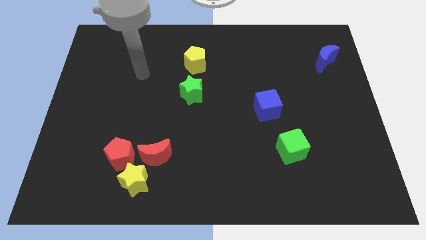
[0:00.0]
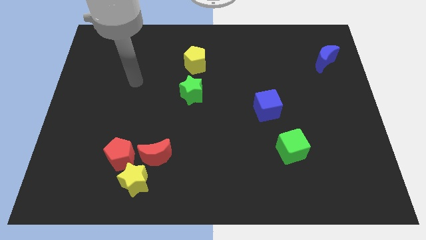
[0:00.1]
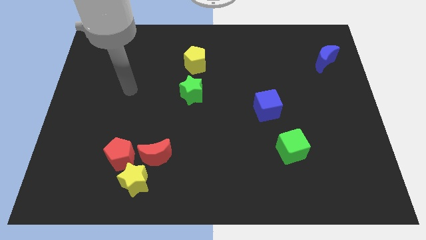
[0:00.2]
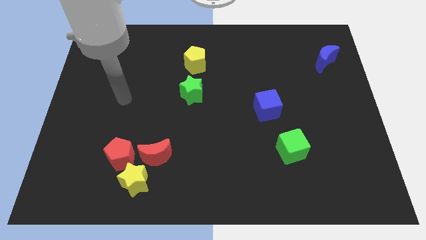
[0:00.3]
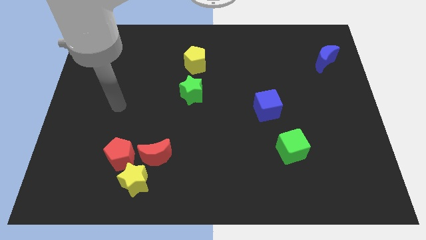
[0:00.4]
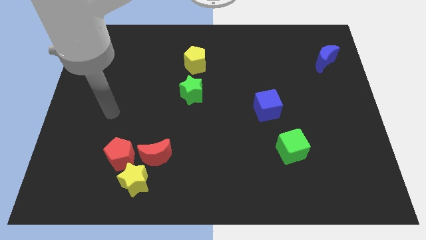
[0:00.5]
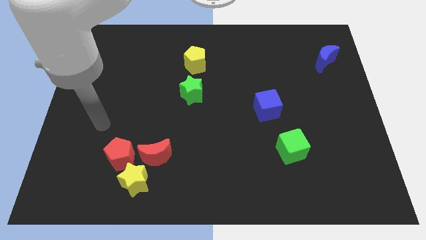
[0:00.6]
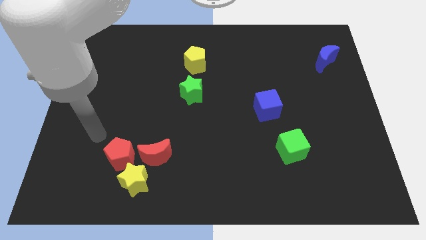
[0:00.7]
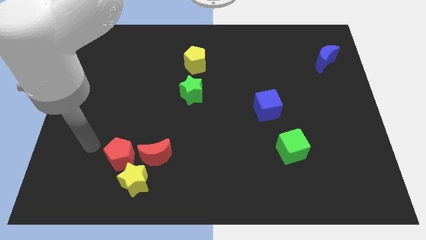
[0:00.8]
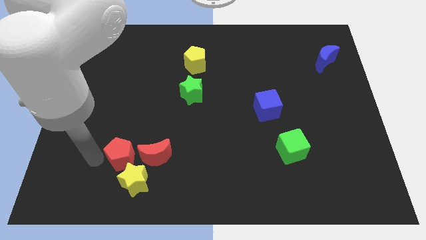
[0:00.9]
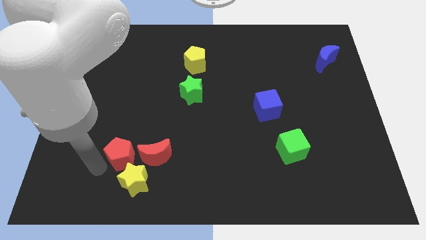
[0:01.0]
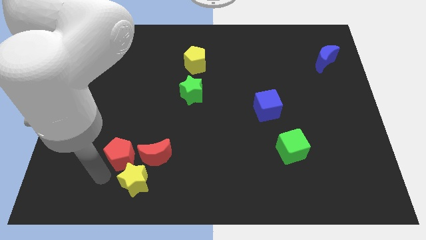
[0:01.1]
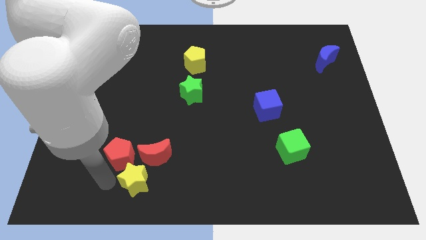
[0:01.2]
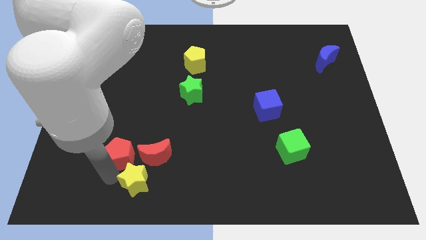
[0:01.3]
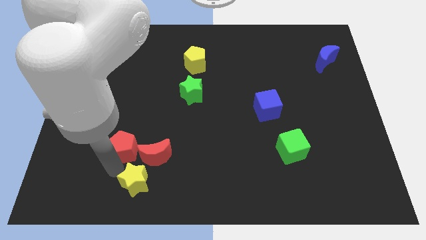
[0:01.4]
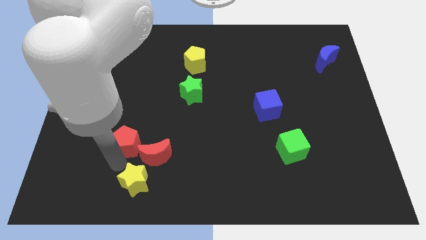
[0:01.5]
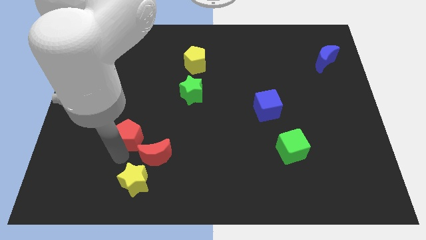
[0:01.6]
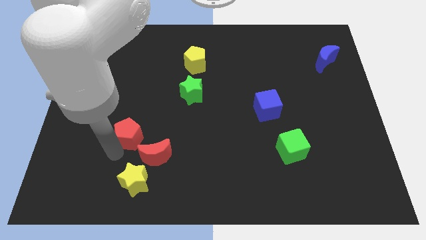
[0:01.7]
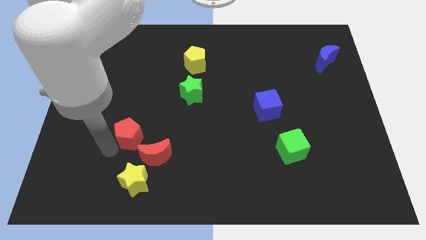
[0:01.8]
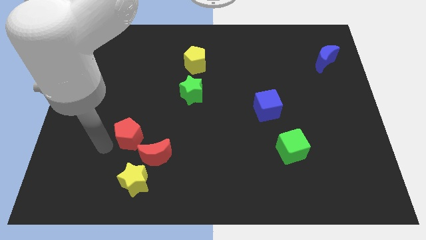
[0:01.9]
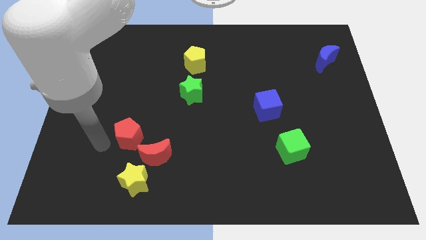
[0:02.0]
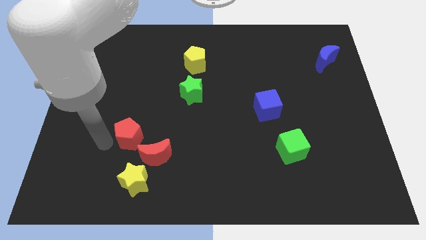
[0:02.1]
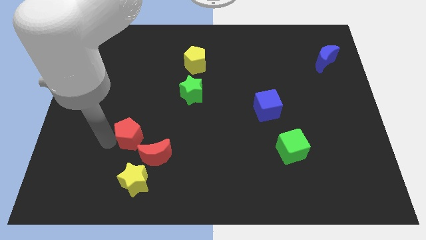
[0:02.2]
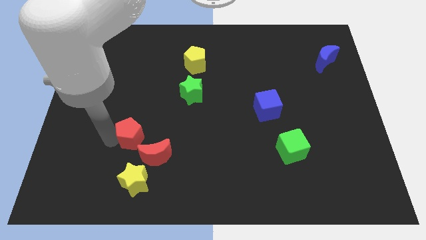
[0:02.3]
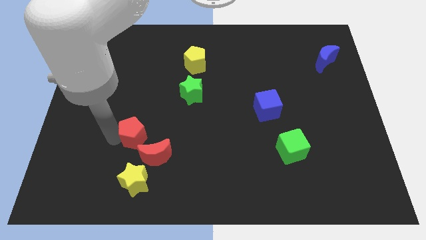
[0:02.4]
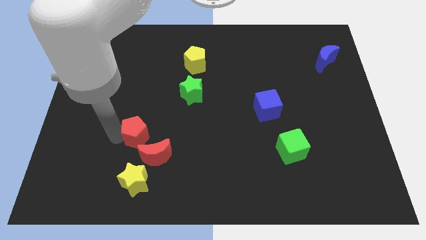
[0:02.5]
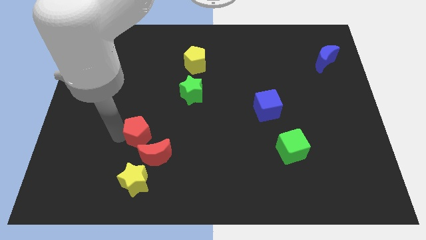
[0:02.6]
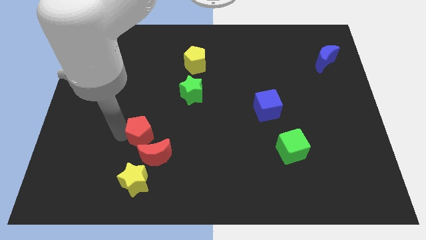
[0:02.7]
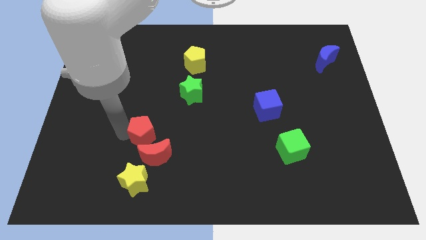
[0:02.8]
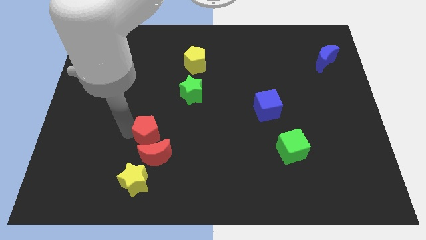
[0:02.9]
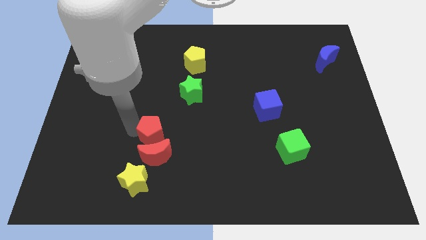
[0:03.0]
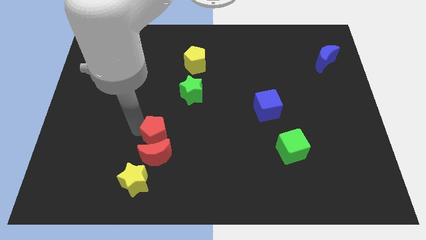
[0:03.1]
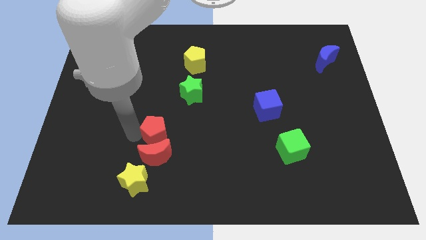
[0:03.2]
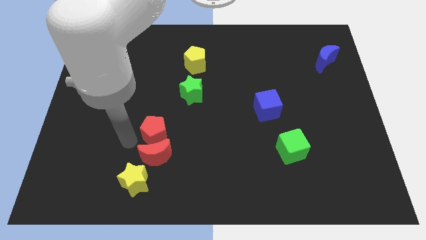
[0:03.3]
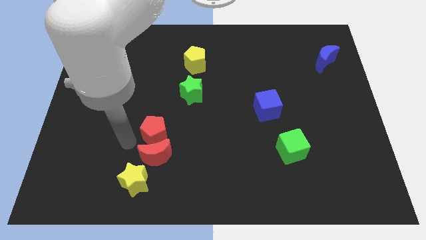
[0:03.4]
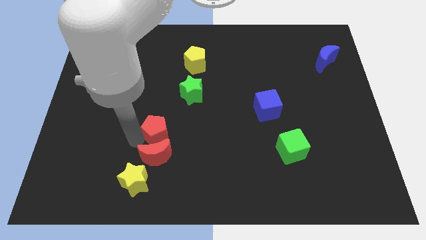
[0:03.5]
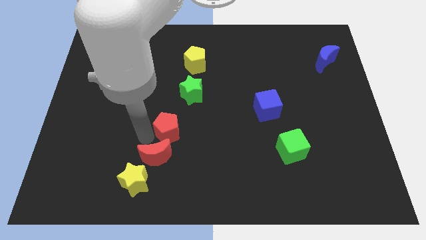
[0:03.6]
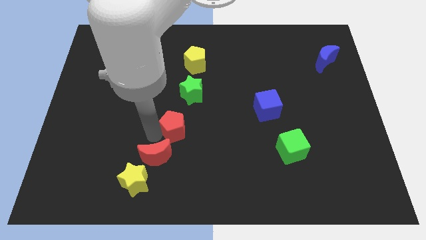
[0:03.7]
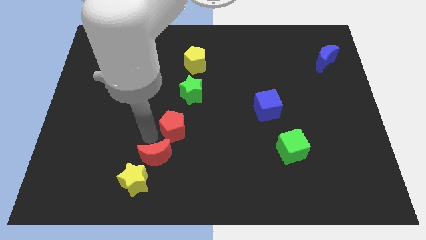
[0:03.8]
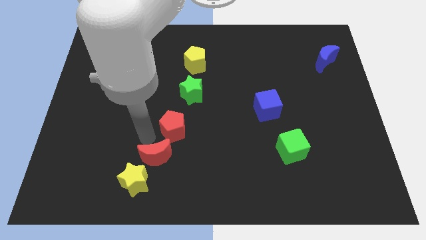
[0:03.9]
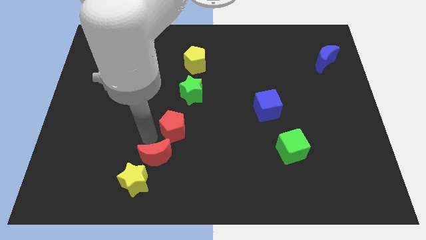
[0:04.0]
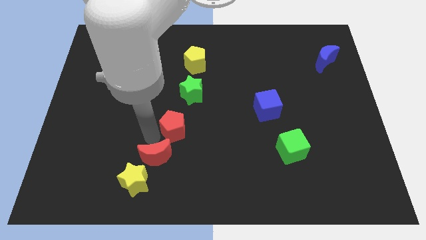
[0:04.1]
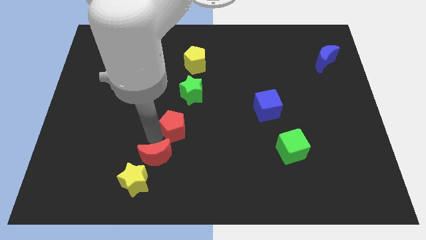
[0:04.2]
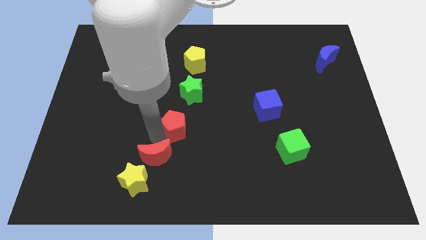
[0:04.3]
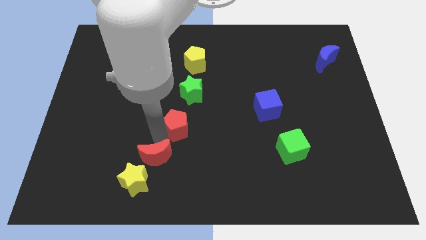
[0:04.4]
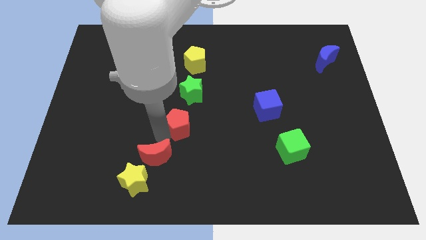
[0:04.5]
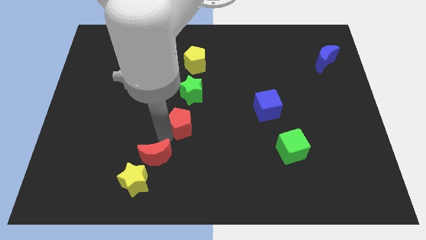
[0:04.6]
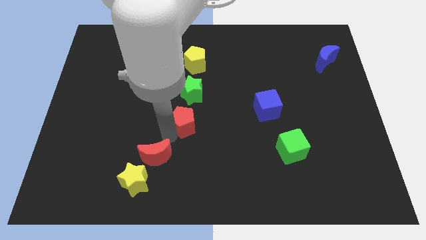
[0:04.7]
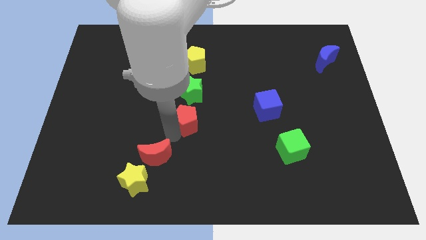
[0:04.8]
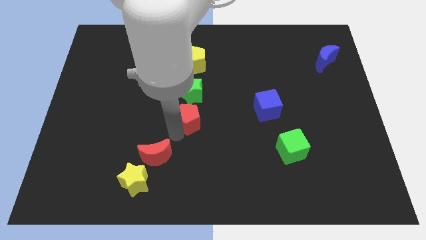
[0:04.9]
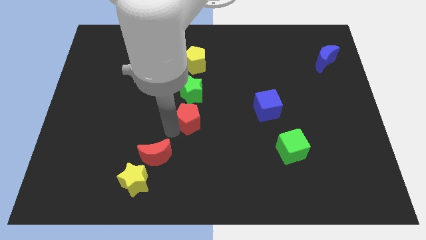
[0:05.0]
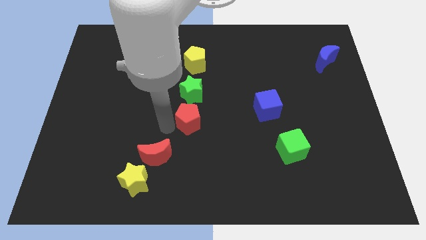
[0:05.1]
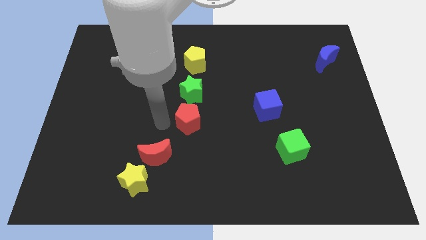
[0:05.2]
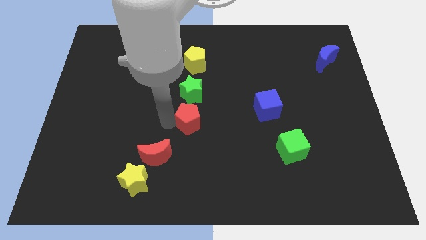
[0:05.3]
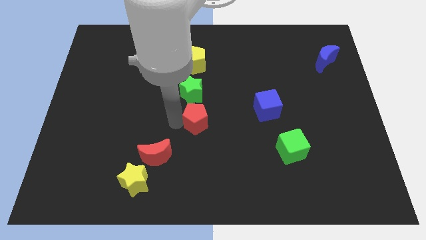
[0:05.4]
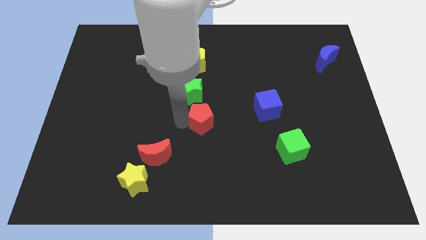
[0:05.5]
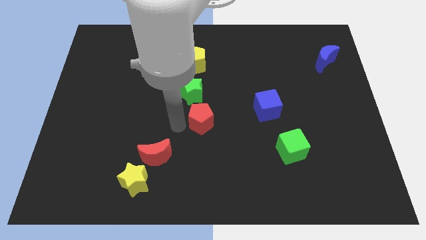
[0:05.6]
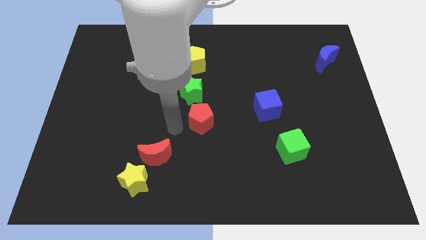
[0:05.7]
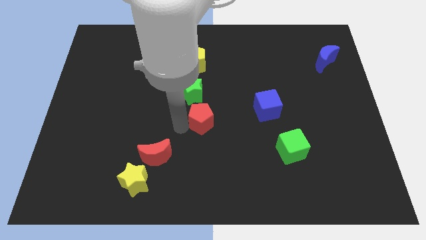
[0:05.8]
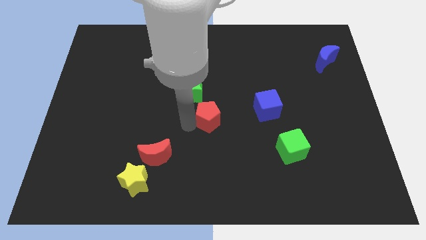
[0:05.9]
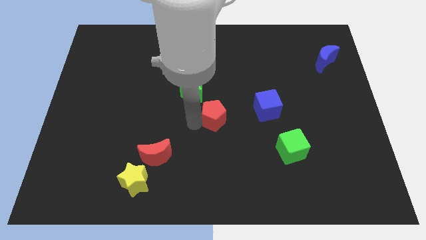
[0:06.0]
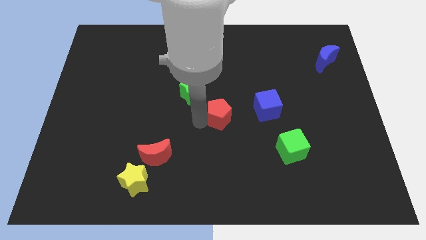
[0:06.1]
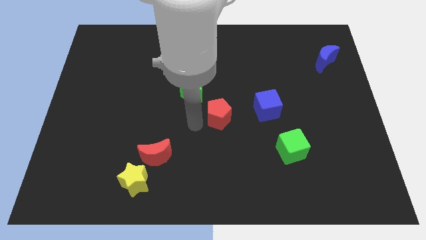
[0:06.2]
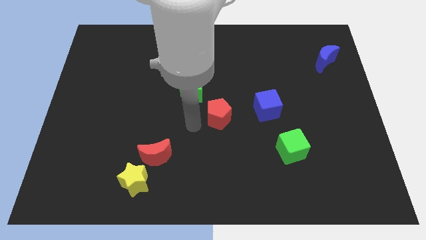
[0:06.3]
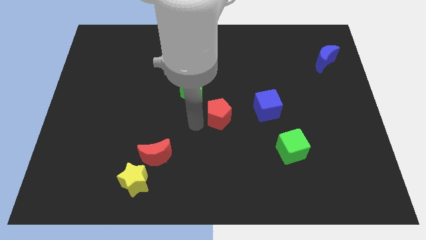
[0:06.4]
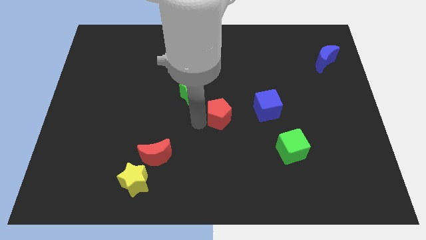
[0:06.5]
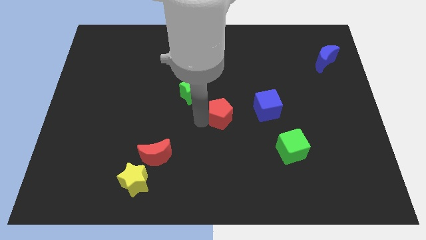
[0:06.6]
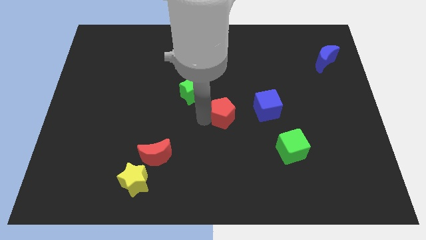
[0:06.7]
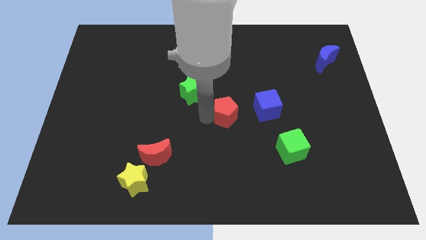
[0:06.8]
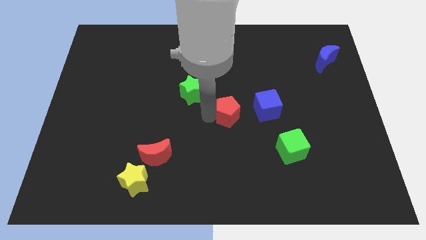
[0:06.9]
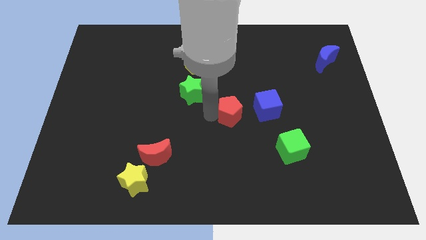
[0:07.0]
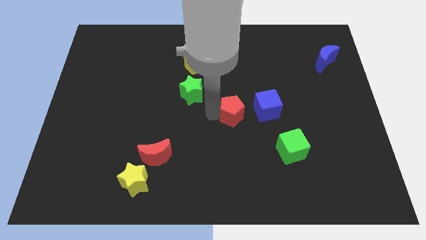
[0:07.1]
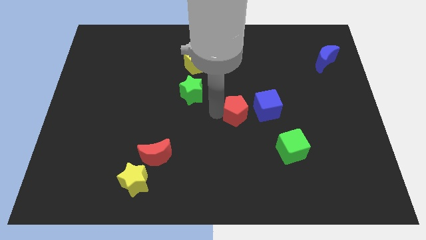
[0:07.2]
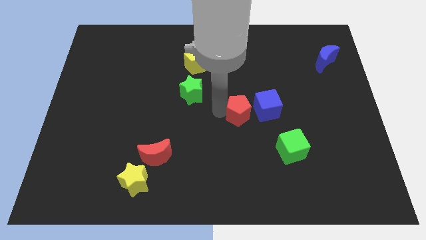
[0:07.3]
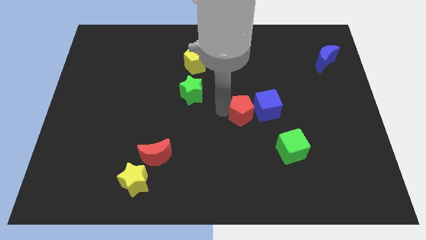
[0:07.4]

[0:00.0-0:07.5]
put the red pentagon next to the blue cube
